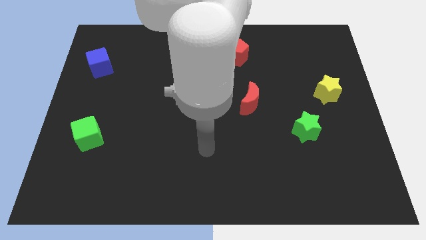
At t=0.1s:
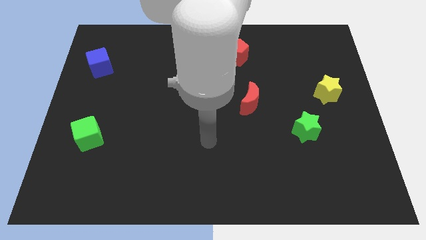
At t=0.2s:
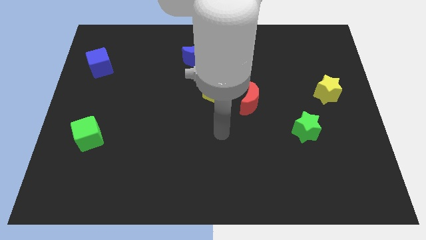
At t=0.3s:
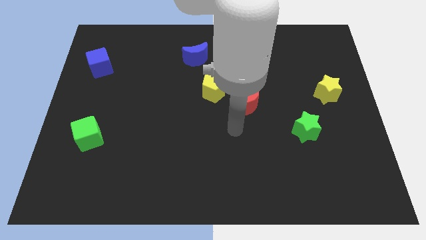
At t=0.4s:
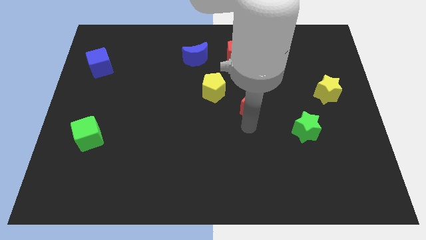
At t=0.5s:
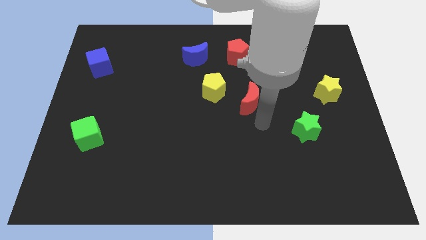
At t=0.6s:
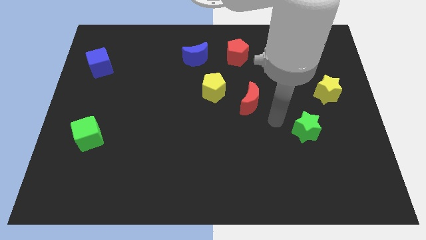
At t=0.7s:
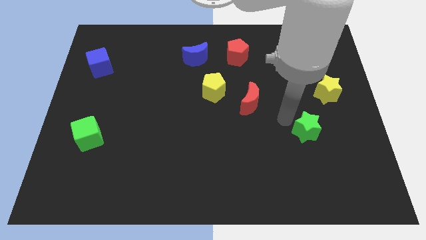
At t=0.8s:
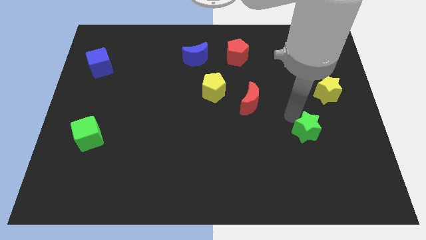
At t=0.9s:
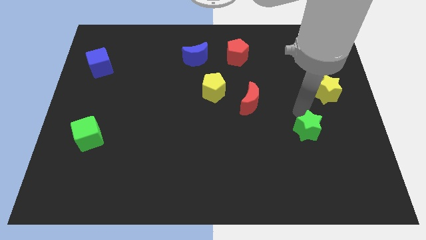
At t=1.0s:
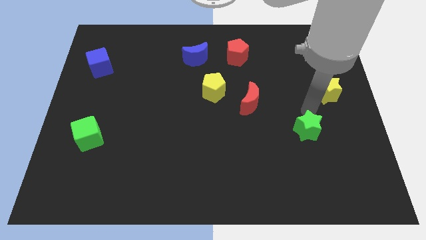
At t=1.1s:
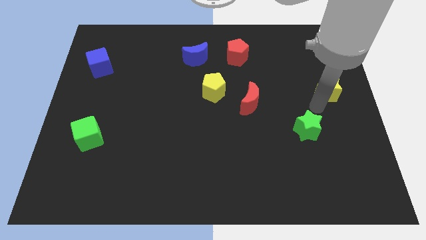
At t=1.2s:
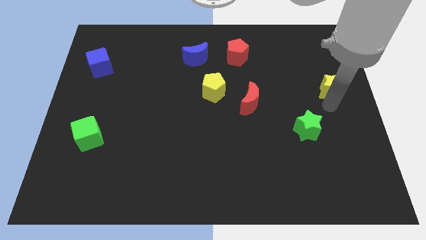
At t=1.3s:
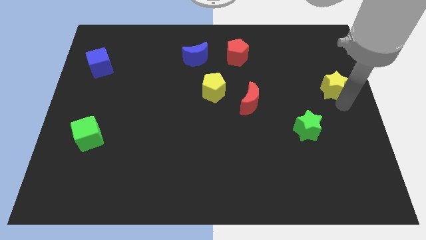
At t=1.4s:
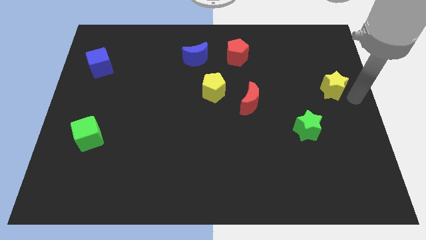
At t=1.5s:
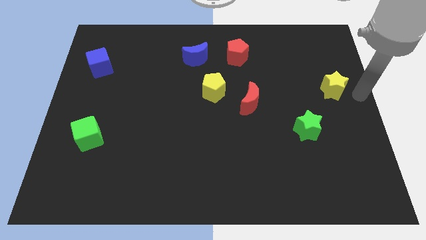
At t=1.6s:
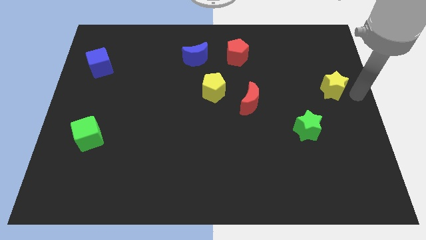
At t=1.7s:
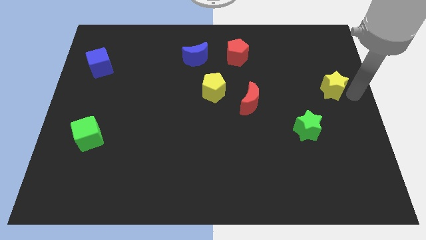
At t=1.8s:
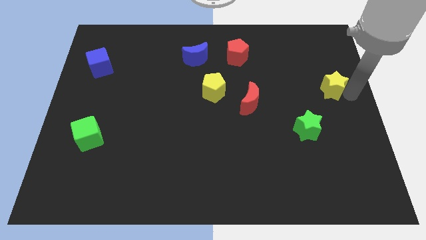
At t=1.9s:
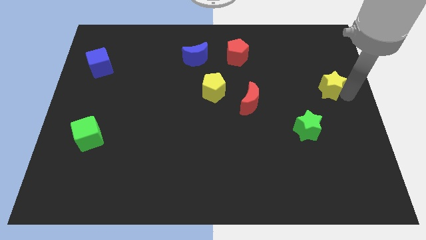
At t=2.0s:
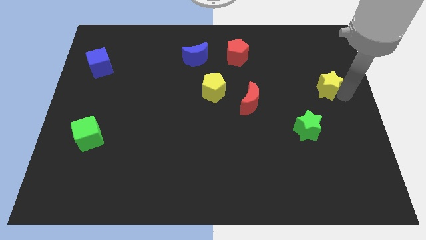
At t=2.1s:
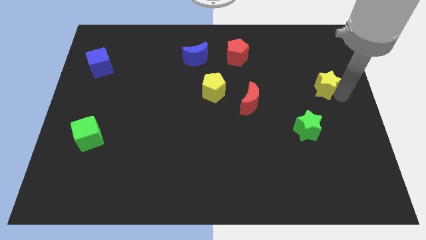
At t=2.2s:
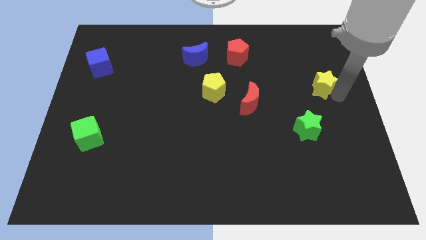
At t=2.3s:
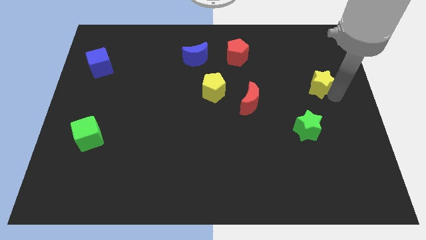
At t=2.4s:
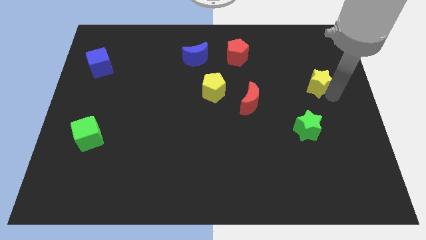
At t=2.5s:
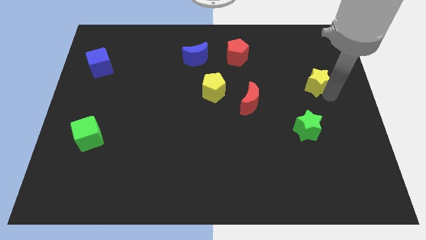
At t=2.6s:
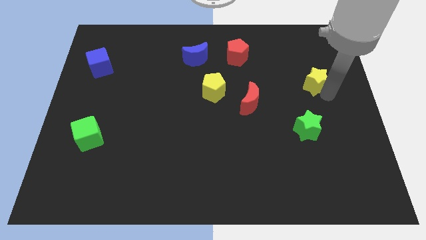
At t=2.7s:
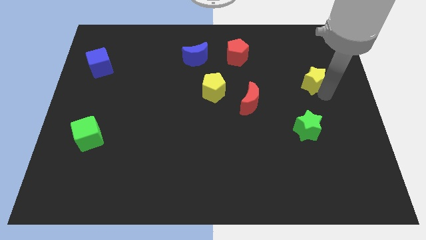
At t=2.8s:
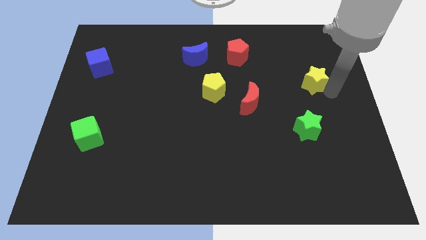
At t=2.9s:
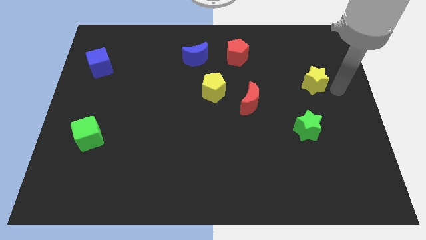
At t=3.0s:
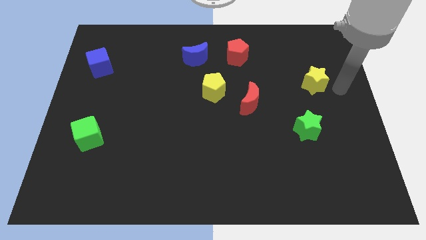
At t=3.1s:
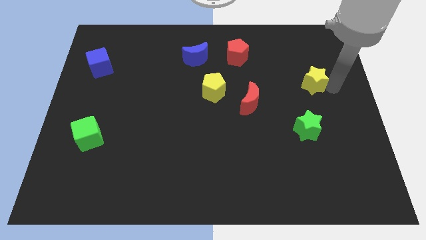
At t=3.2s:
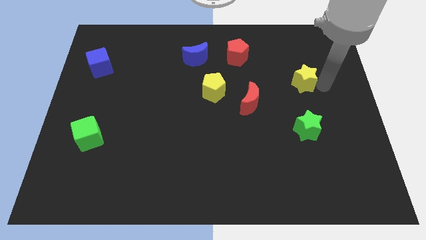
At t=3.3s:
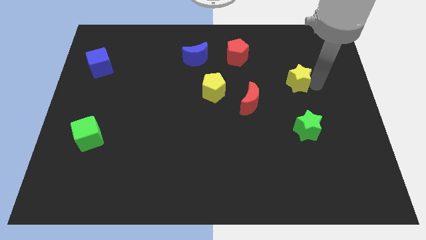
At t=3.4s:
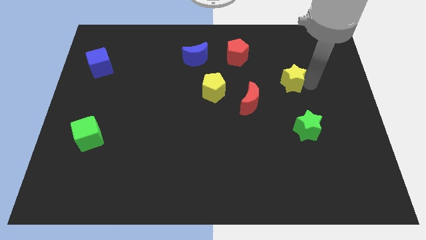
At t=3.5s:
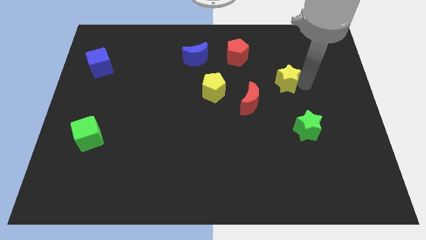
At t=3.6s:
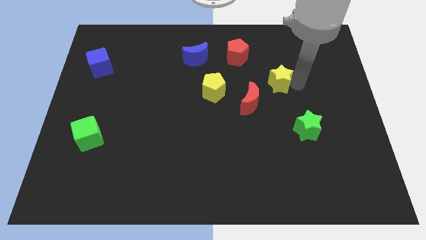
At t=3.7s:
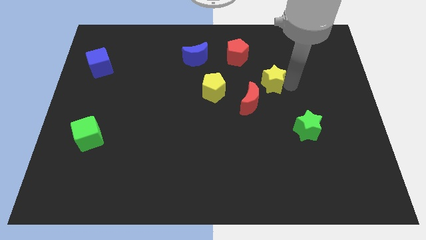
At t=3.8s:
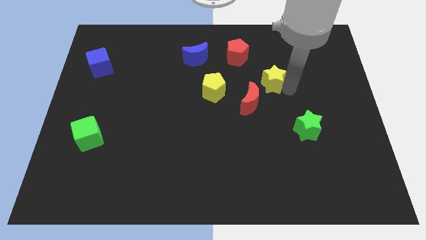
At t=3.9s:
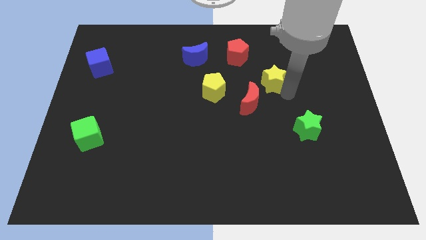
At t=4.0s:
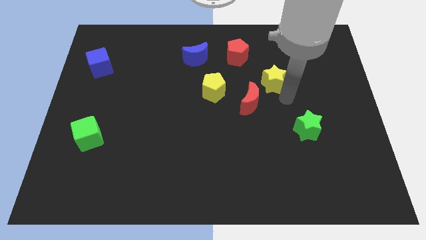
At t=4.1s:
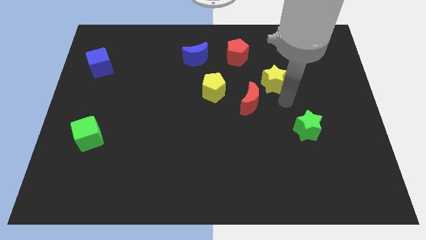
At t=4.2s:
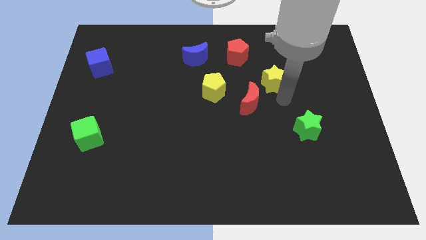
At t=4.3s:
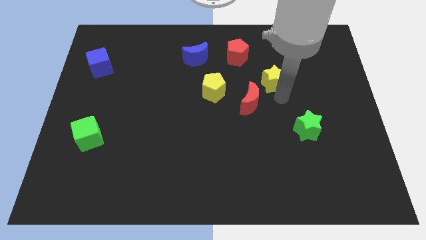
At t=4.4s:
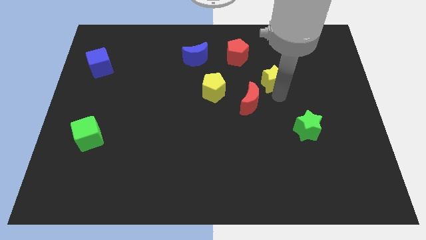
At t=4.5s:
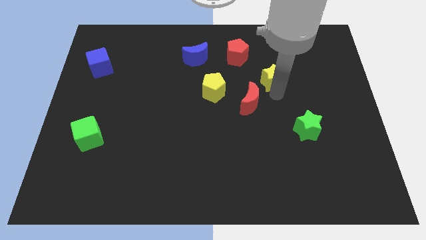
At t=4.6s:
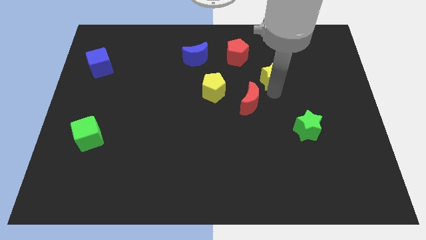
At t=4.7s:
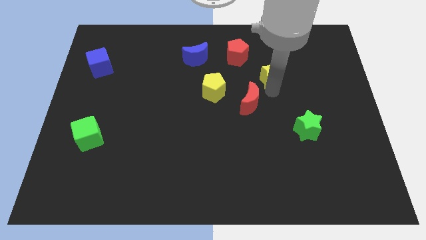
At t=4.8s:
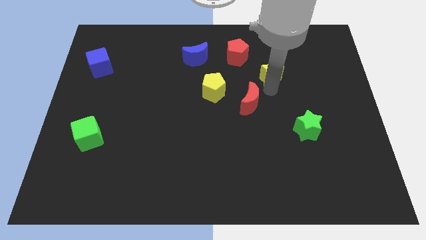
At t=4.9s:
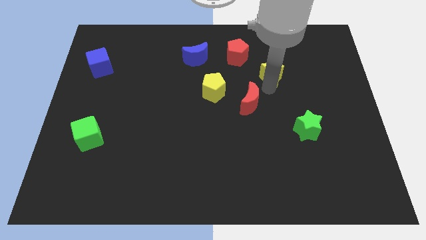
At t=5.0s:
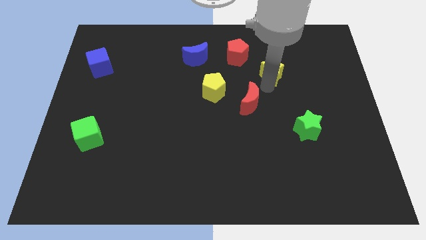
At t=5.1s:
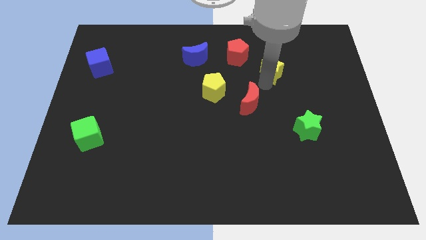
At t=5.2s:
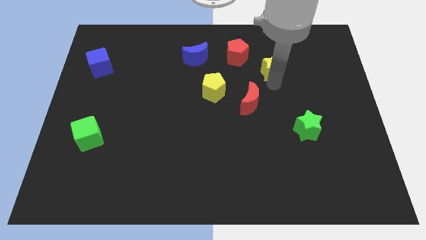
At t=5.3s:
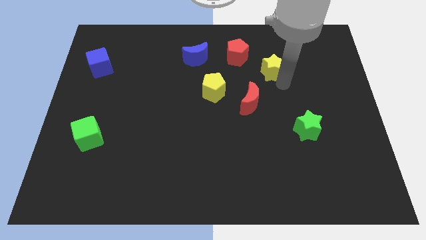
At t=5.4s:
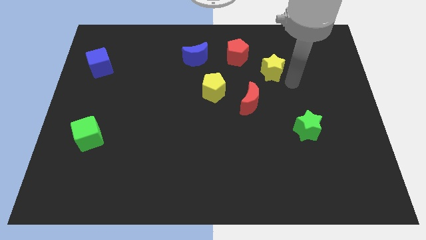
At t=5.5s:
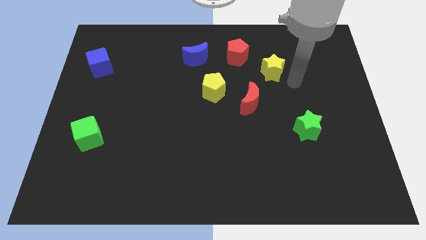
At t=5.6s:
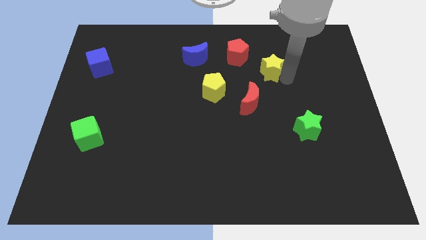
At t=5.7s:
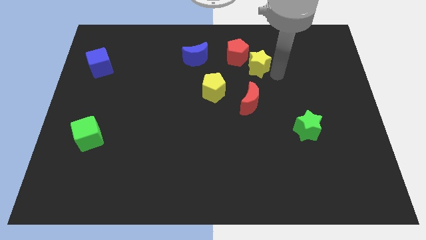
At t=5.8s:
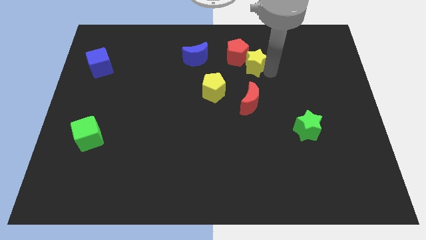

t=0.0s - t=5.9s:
push the yellow star next to the red pentagon

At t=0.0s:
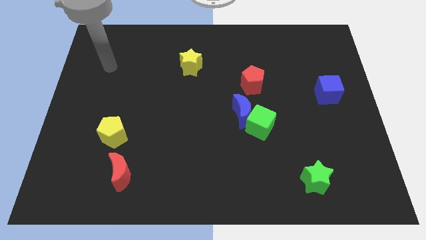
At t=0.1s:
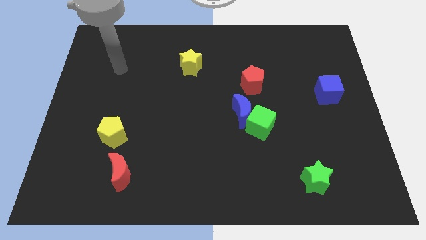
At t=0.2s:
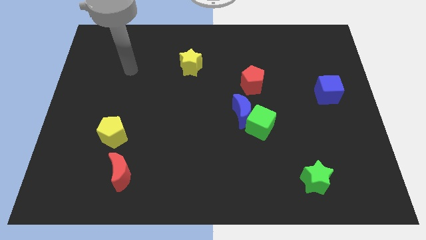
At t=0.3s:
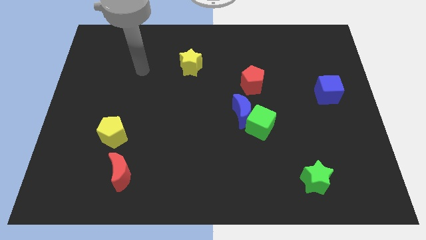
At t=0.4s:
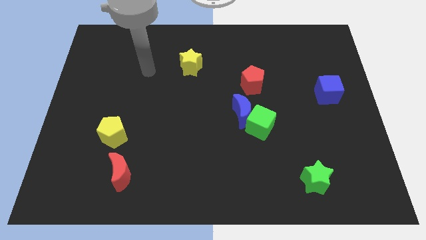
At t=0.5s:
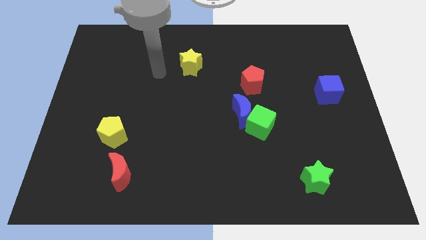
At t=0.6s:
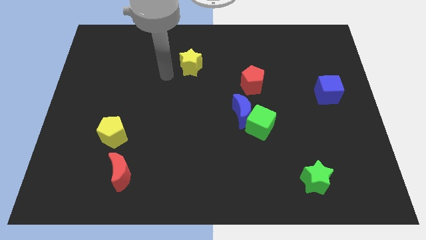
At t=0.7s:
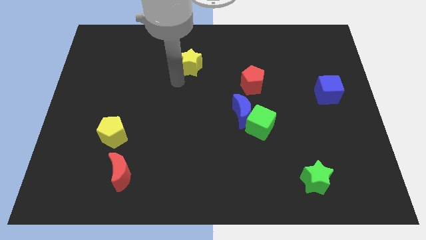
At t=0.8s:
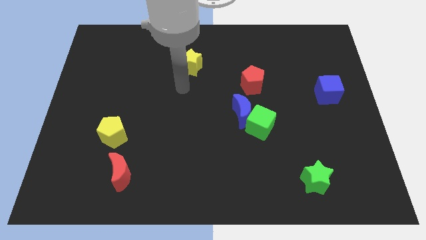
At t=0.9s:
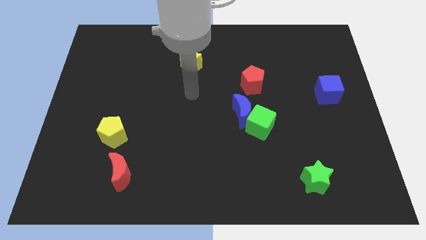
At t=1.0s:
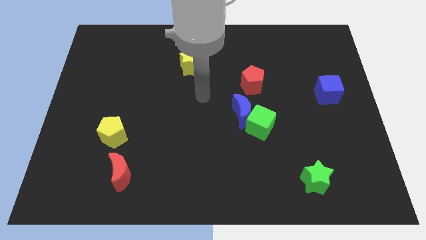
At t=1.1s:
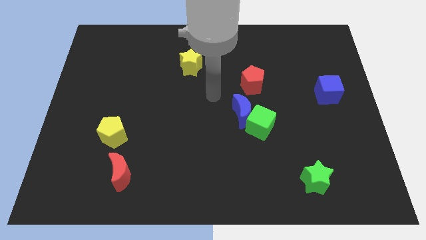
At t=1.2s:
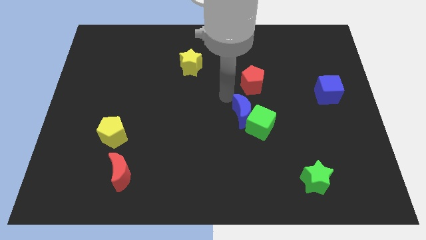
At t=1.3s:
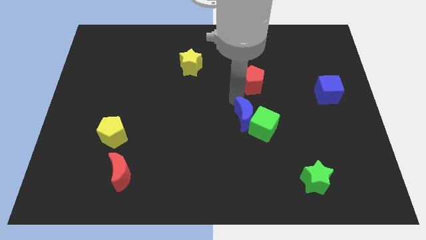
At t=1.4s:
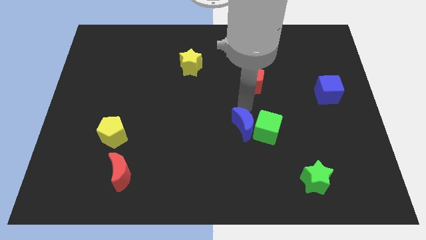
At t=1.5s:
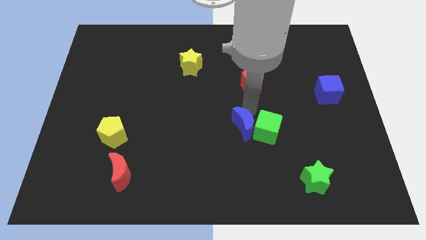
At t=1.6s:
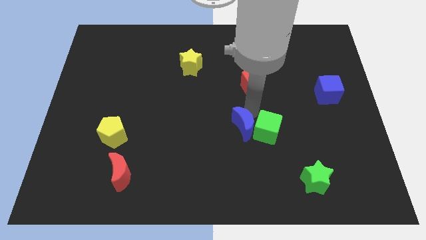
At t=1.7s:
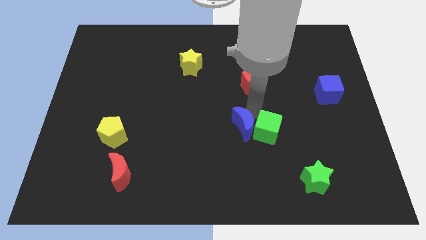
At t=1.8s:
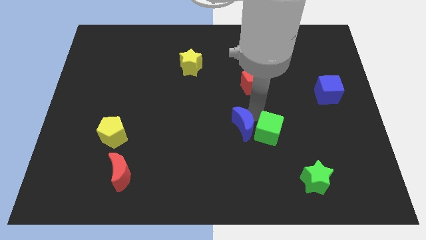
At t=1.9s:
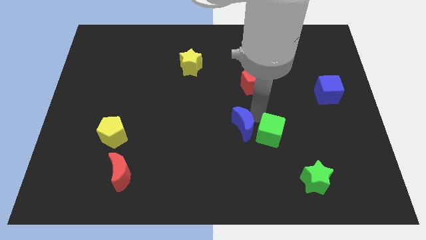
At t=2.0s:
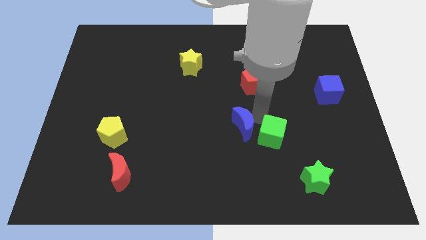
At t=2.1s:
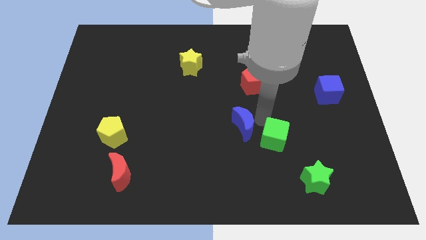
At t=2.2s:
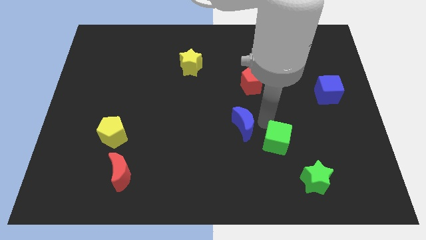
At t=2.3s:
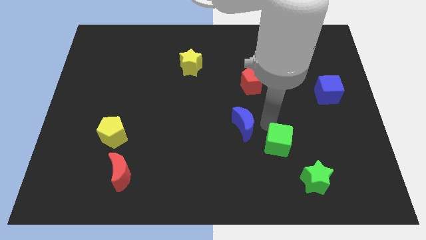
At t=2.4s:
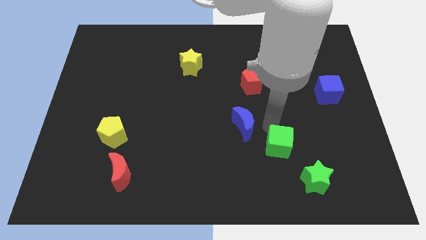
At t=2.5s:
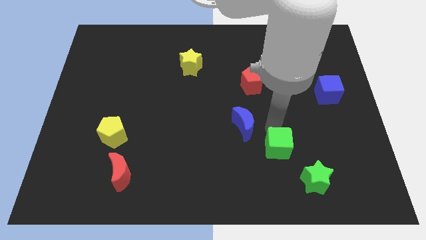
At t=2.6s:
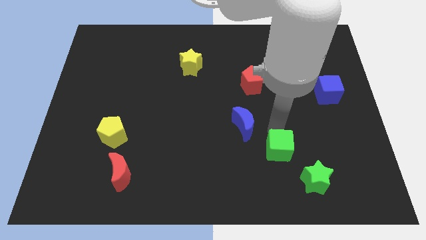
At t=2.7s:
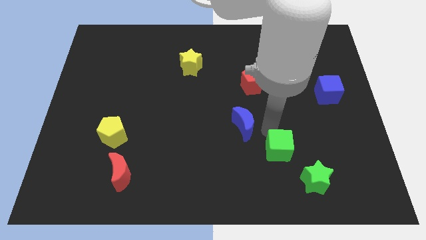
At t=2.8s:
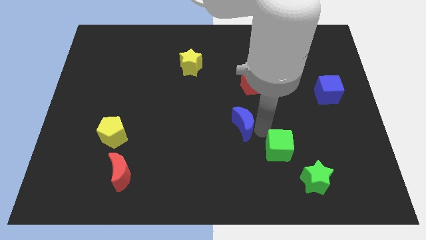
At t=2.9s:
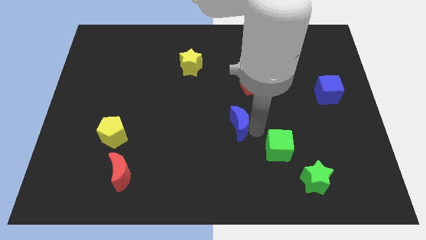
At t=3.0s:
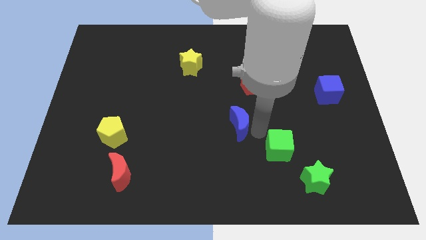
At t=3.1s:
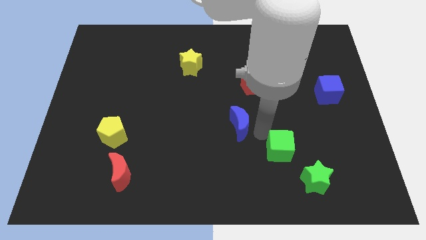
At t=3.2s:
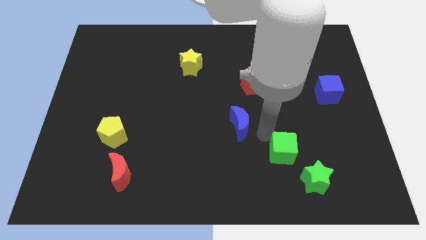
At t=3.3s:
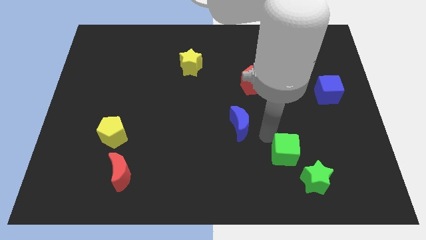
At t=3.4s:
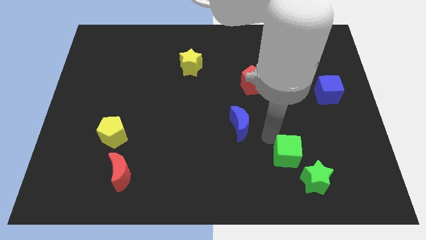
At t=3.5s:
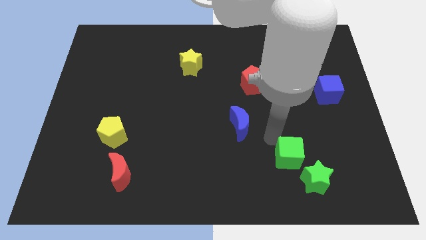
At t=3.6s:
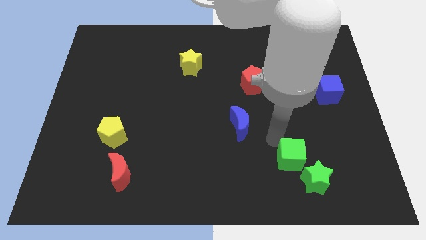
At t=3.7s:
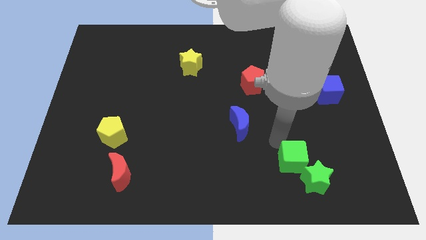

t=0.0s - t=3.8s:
move the green cube close to the green star
